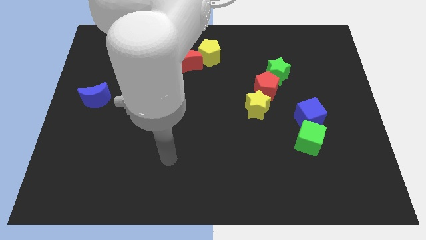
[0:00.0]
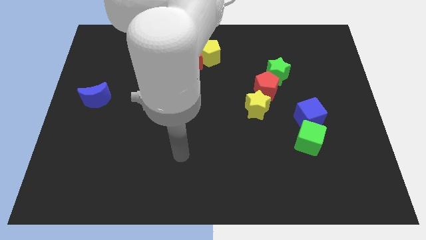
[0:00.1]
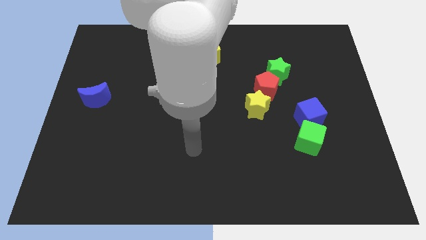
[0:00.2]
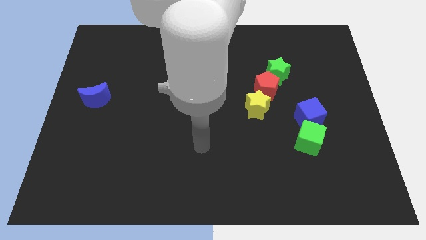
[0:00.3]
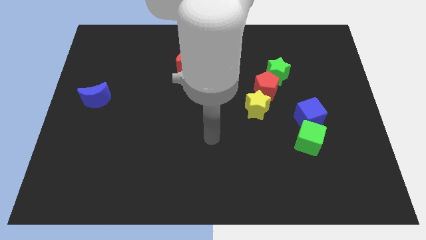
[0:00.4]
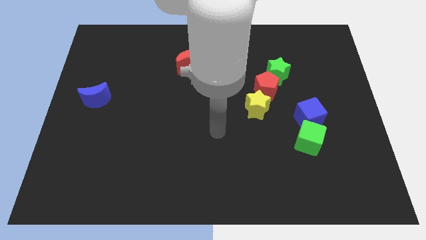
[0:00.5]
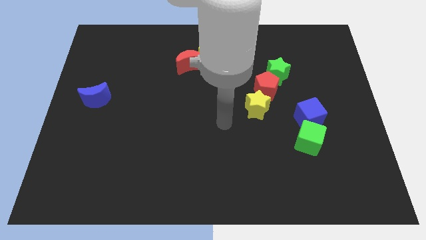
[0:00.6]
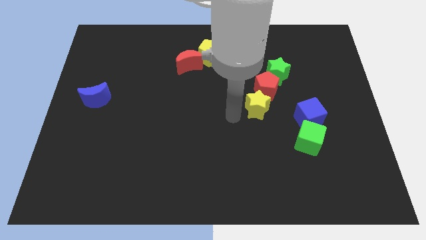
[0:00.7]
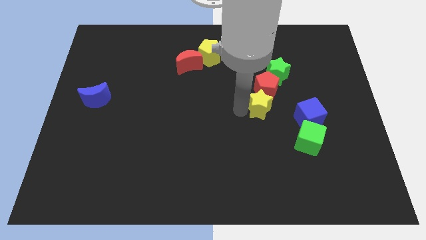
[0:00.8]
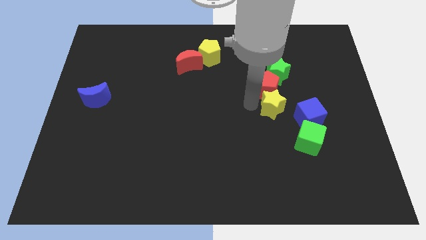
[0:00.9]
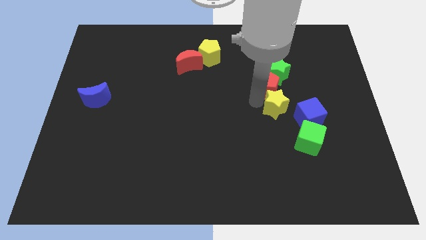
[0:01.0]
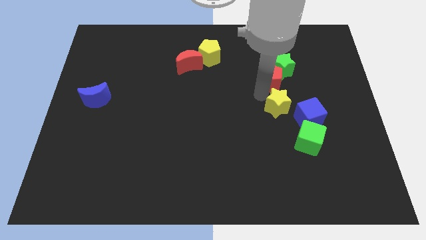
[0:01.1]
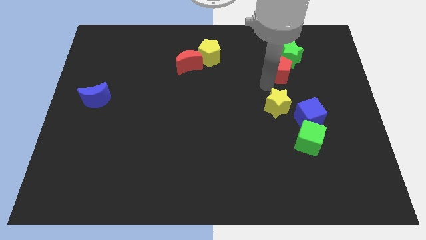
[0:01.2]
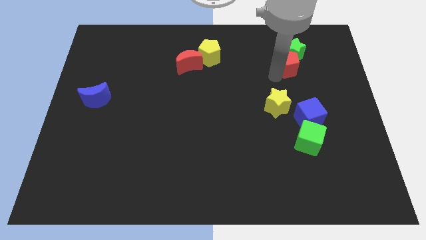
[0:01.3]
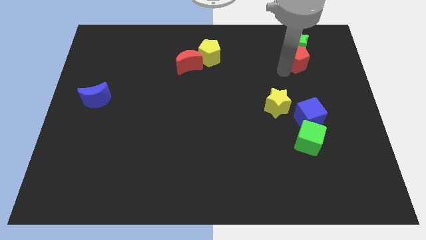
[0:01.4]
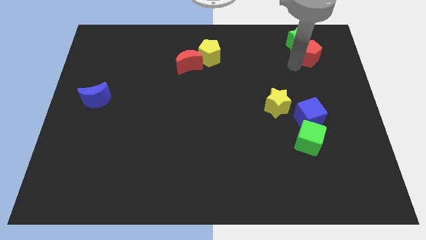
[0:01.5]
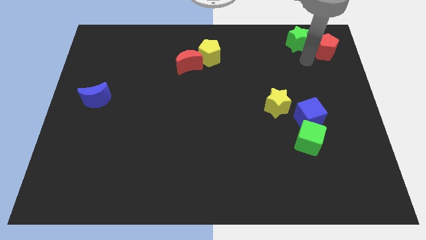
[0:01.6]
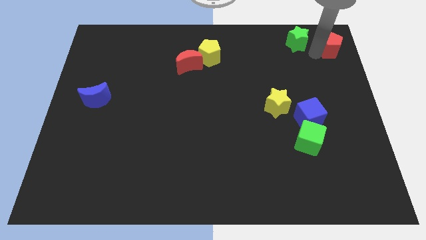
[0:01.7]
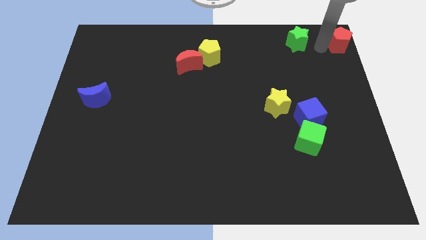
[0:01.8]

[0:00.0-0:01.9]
separate the green star from the red pentagon

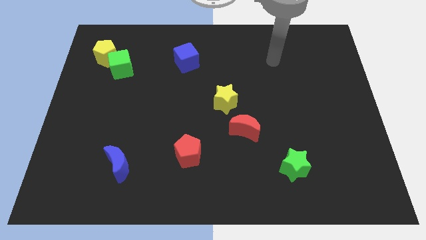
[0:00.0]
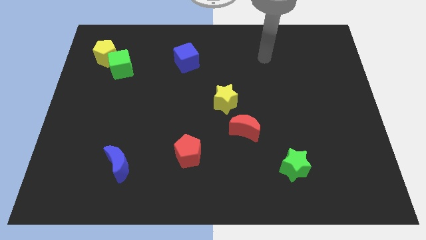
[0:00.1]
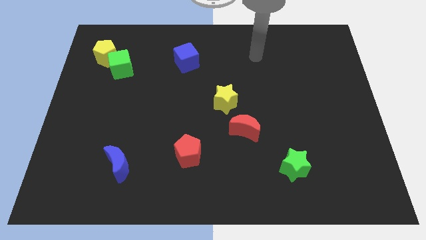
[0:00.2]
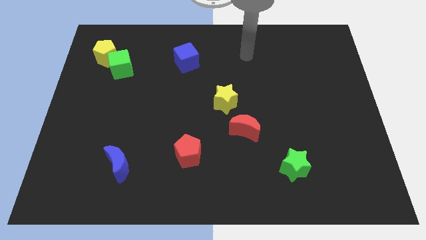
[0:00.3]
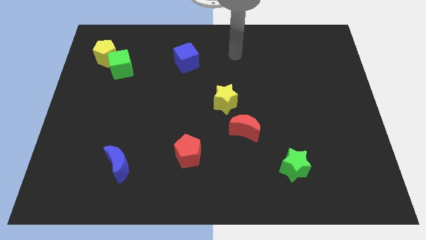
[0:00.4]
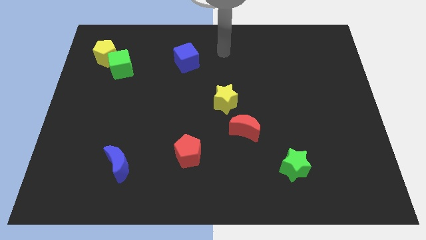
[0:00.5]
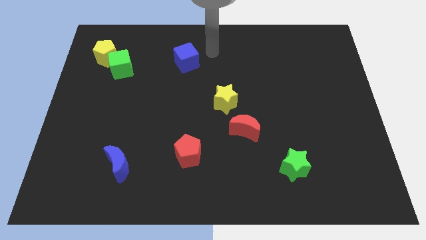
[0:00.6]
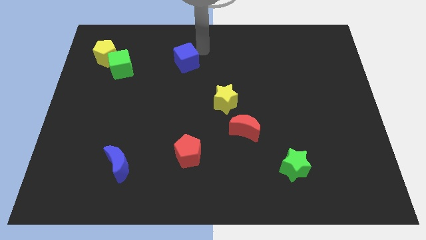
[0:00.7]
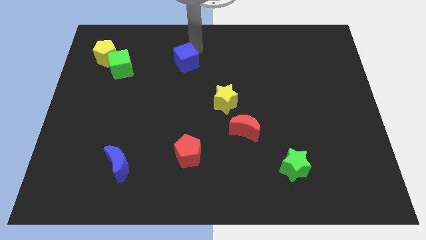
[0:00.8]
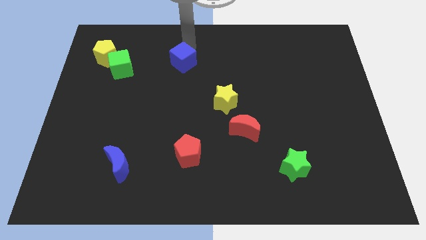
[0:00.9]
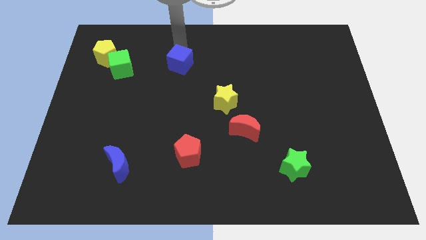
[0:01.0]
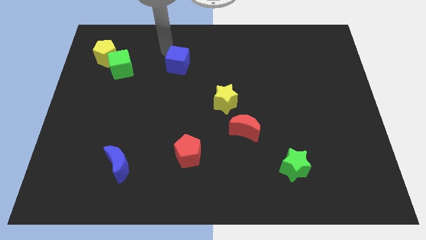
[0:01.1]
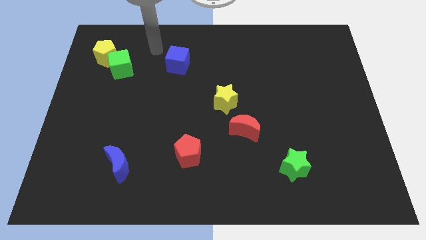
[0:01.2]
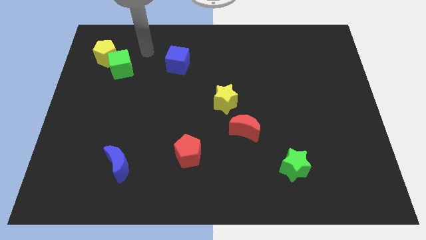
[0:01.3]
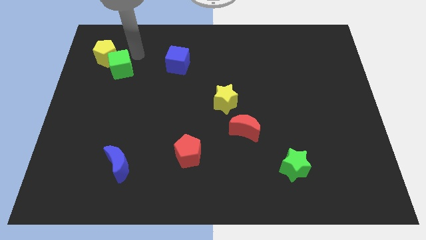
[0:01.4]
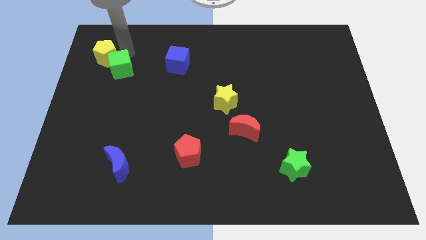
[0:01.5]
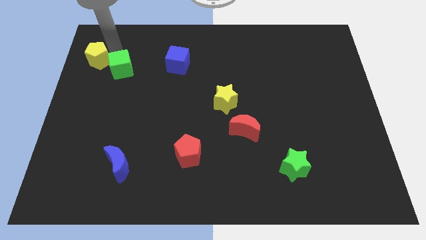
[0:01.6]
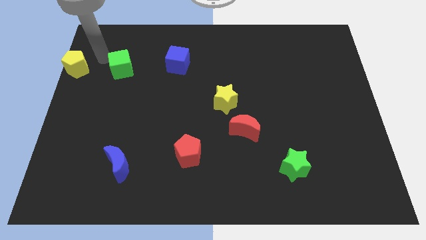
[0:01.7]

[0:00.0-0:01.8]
pull the green cube apart from the yellow pentagon

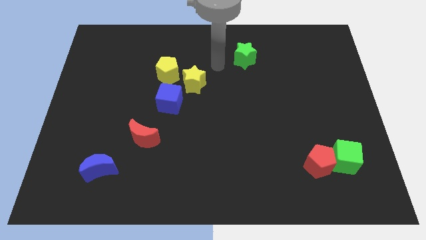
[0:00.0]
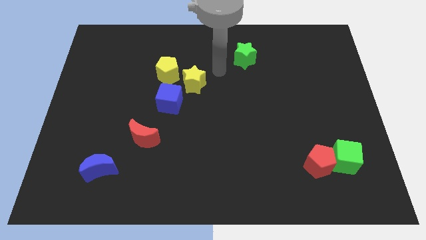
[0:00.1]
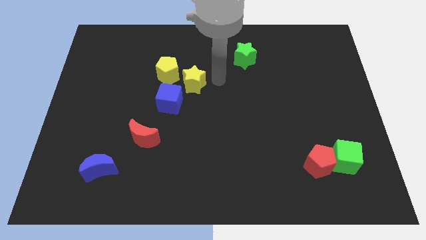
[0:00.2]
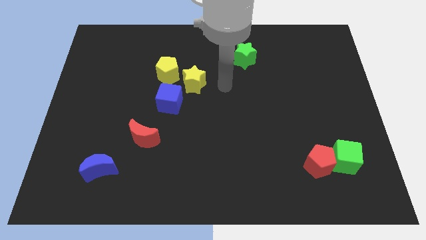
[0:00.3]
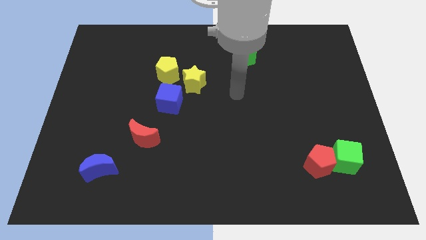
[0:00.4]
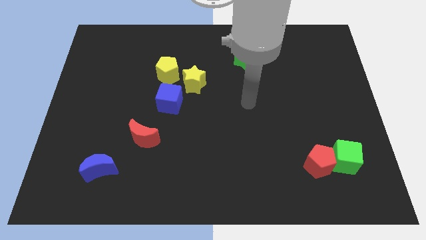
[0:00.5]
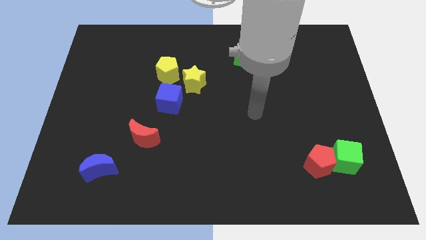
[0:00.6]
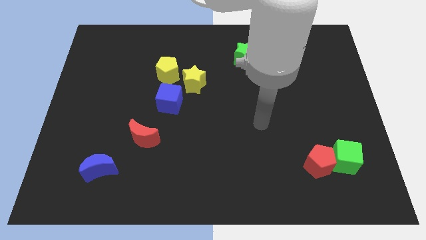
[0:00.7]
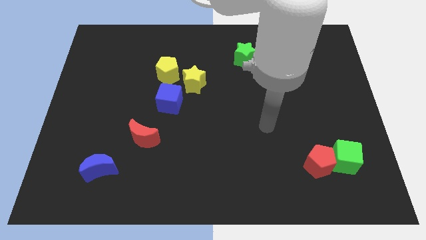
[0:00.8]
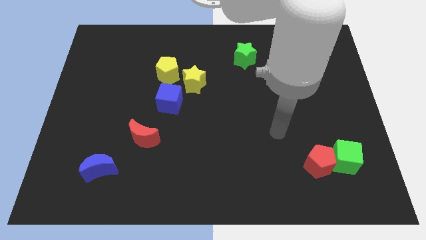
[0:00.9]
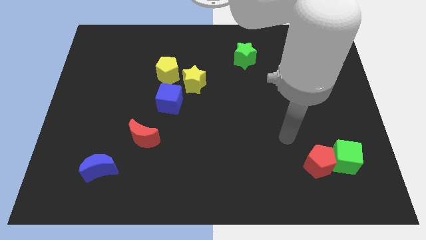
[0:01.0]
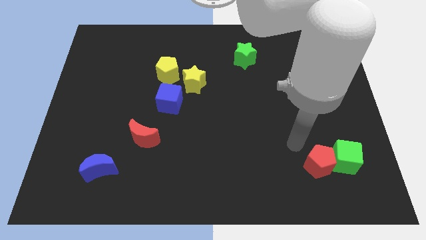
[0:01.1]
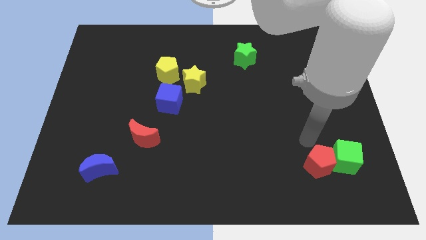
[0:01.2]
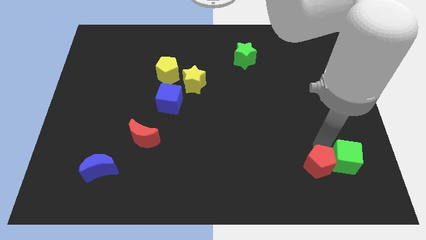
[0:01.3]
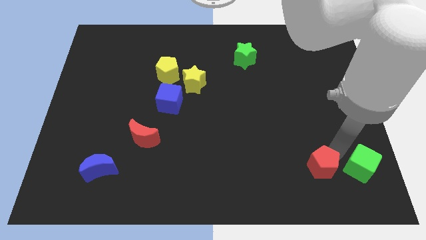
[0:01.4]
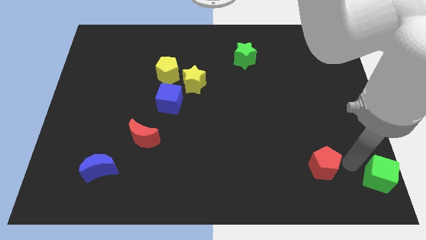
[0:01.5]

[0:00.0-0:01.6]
separate the red pentagon from the green cube

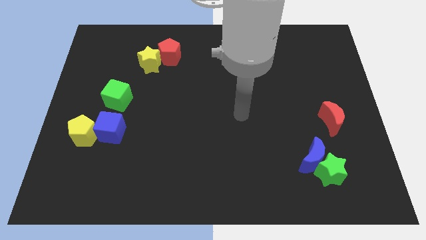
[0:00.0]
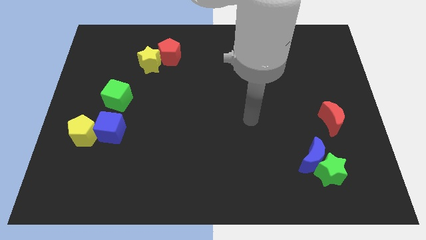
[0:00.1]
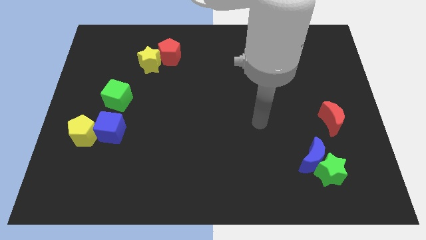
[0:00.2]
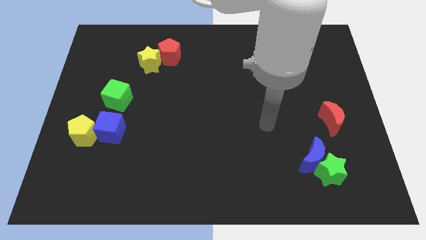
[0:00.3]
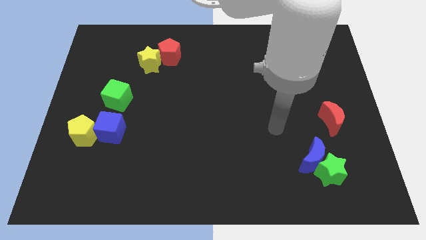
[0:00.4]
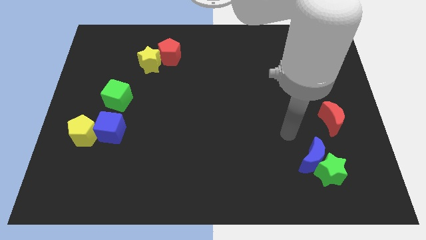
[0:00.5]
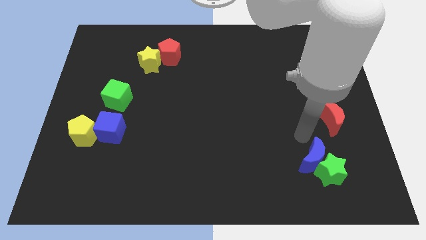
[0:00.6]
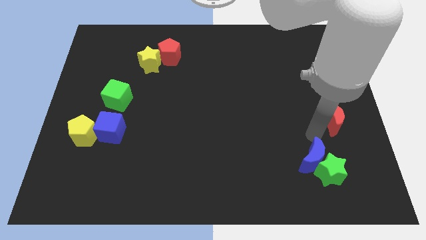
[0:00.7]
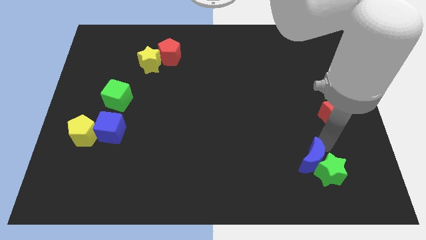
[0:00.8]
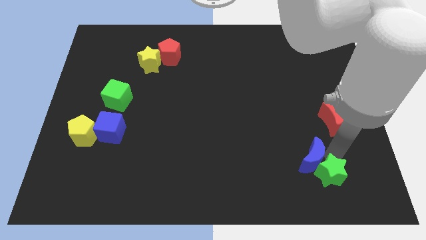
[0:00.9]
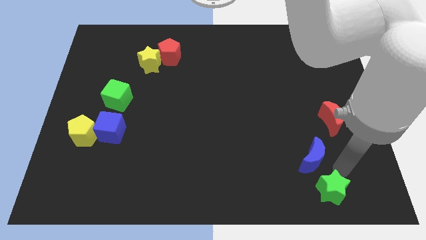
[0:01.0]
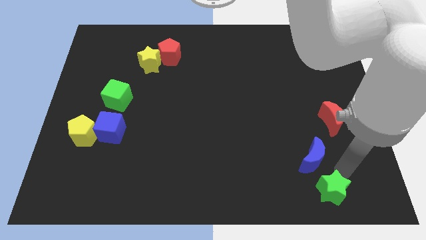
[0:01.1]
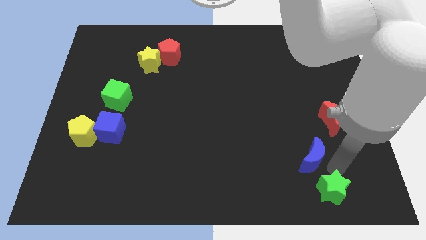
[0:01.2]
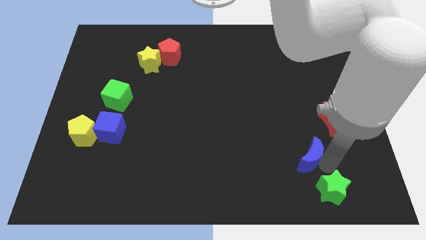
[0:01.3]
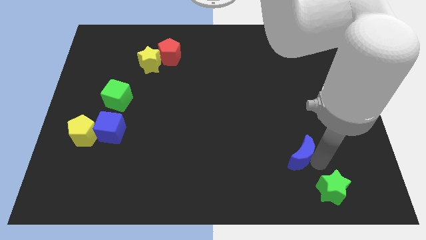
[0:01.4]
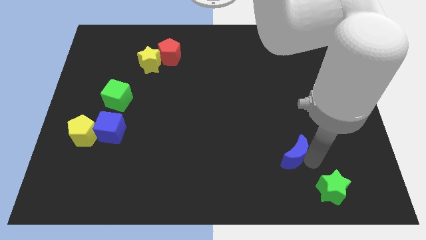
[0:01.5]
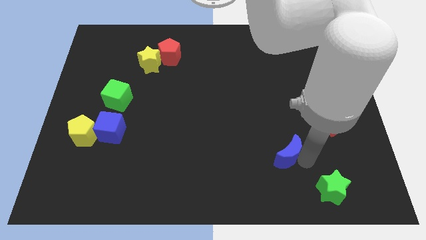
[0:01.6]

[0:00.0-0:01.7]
separate the blue moon from the green star

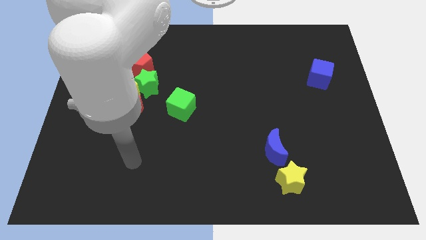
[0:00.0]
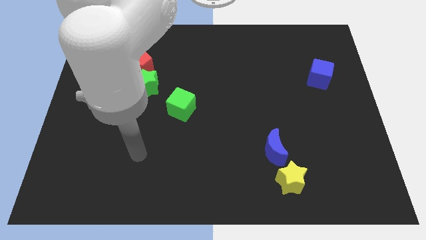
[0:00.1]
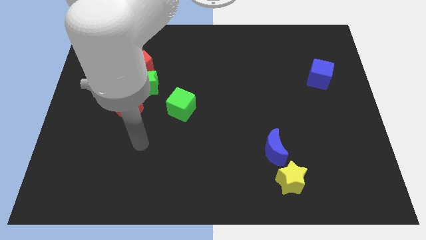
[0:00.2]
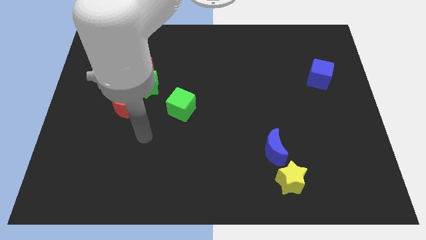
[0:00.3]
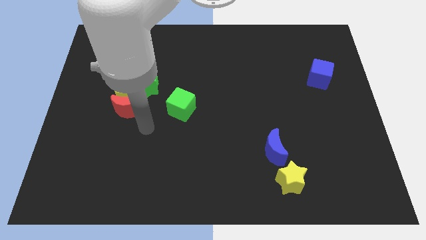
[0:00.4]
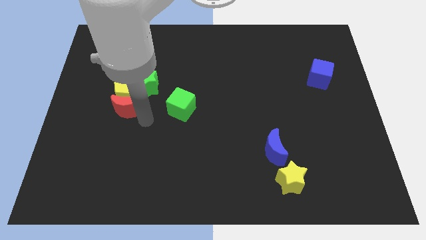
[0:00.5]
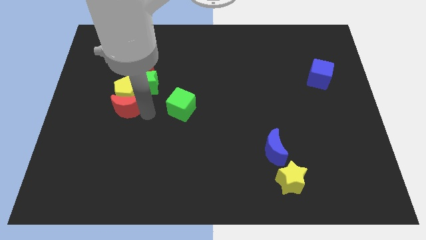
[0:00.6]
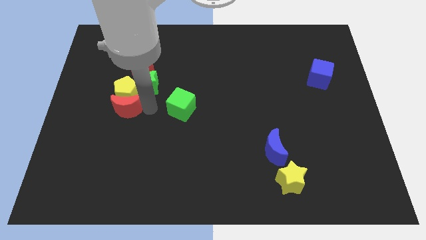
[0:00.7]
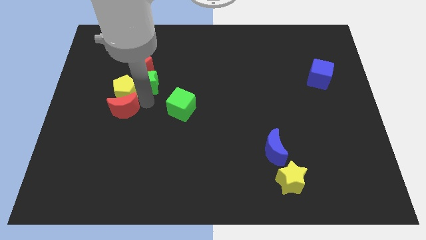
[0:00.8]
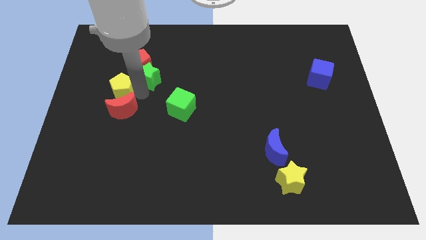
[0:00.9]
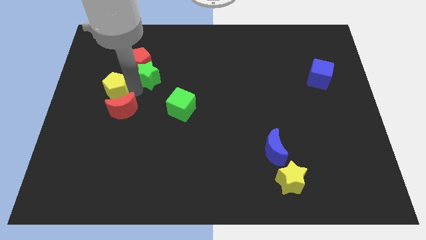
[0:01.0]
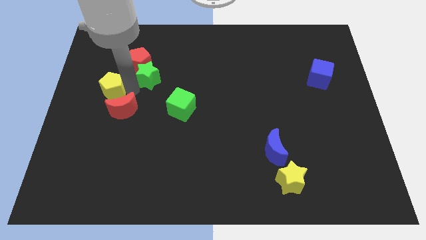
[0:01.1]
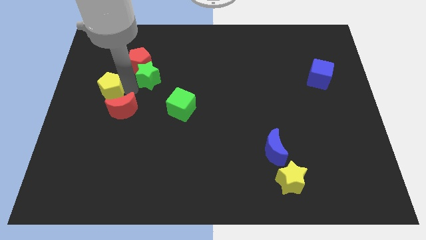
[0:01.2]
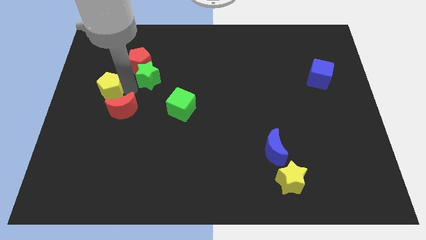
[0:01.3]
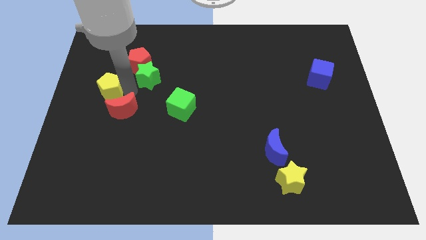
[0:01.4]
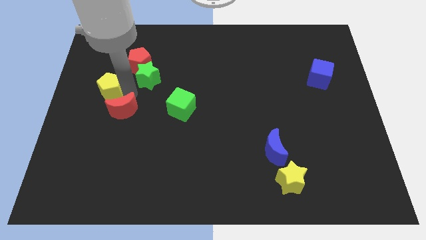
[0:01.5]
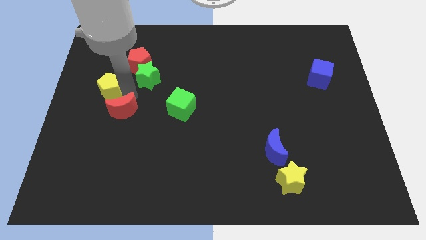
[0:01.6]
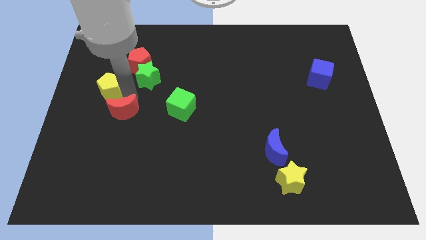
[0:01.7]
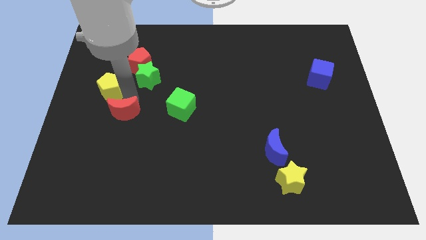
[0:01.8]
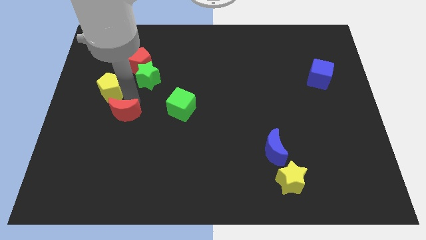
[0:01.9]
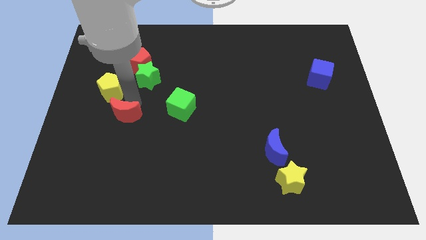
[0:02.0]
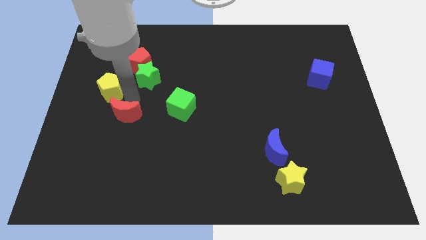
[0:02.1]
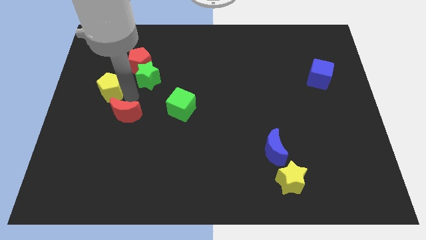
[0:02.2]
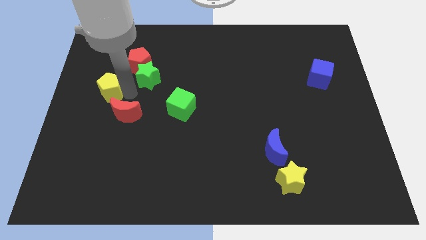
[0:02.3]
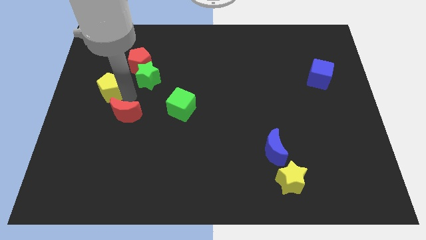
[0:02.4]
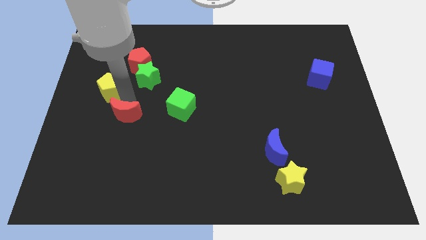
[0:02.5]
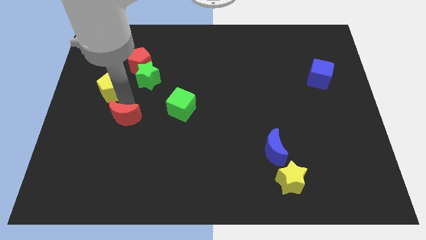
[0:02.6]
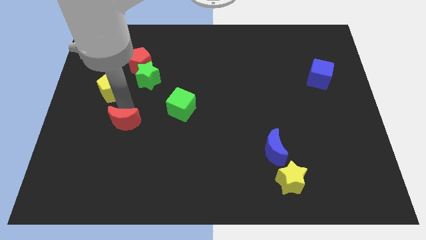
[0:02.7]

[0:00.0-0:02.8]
pull the red moon apart from the yellow pentagon and green star
